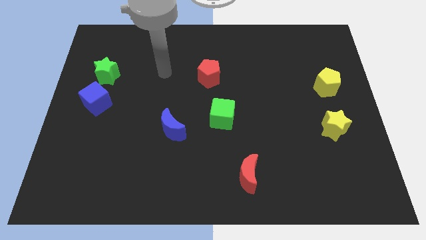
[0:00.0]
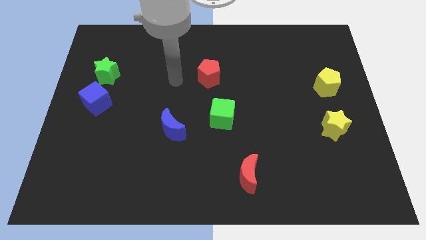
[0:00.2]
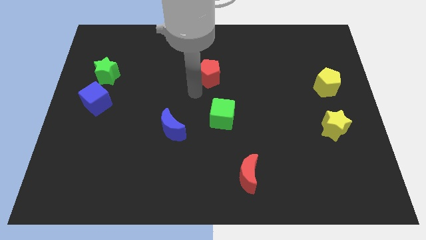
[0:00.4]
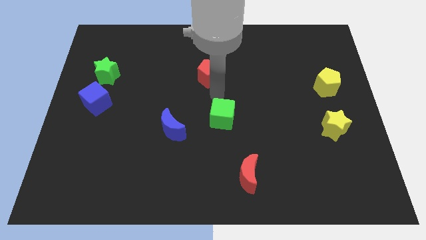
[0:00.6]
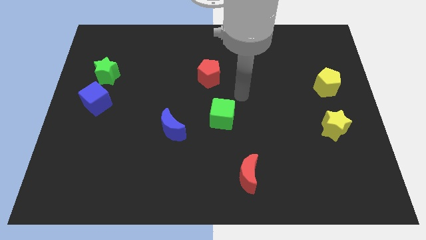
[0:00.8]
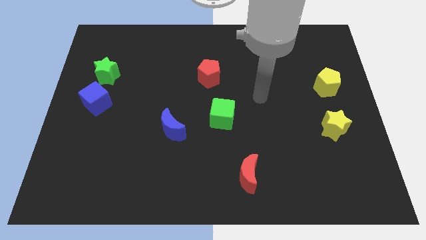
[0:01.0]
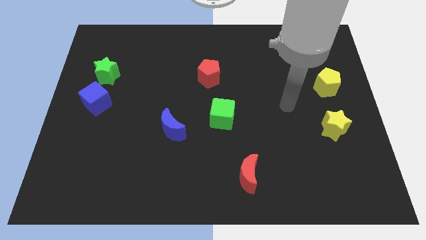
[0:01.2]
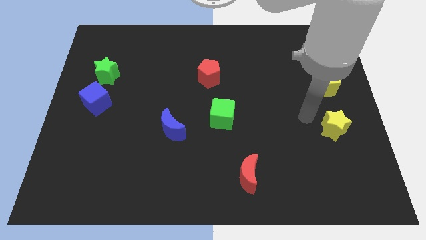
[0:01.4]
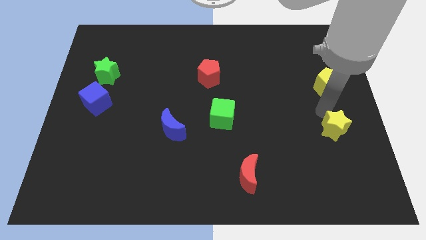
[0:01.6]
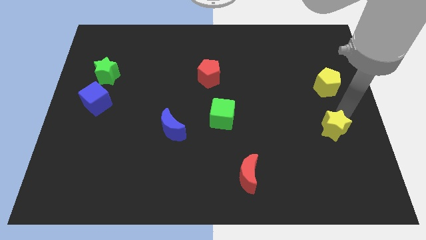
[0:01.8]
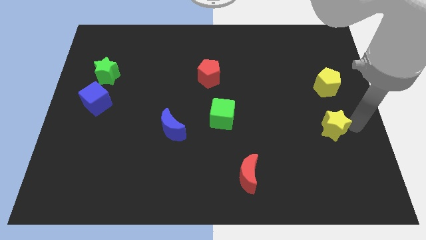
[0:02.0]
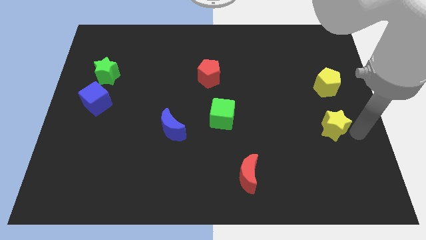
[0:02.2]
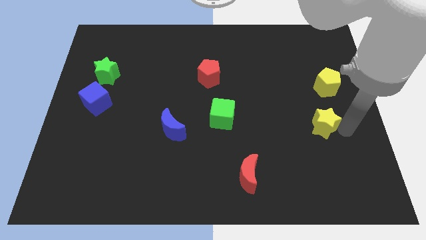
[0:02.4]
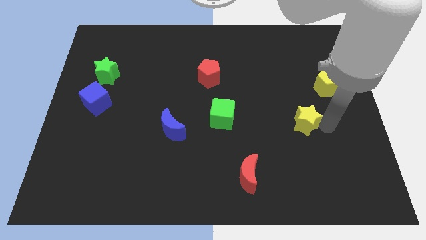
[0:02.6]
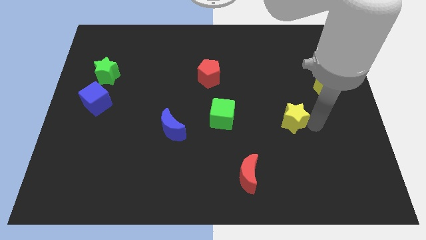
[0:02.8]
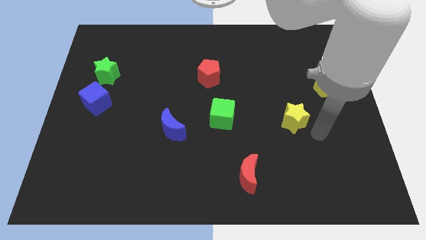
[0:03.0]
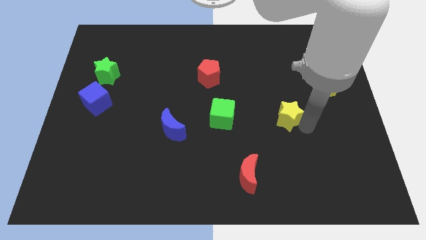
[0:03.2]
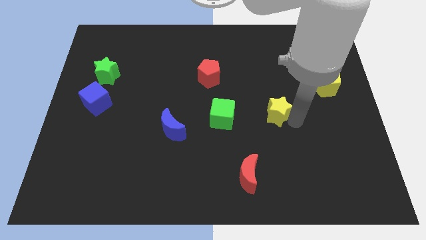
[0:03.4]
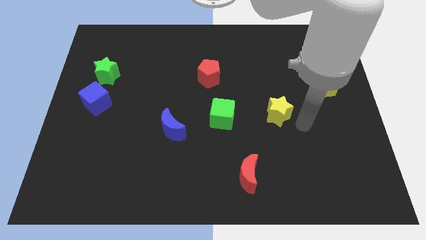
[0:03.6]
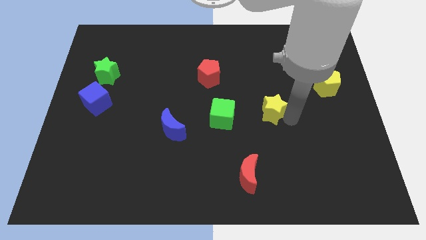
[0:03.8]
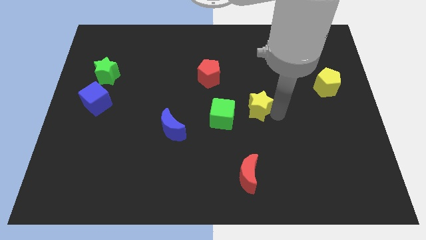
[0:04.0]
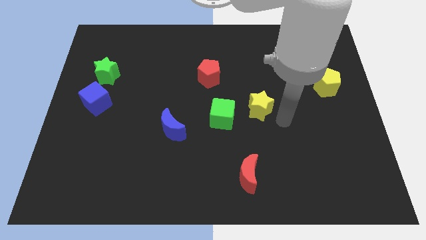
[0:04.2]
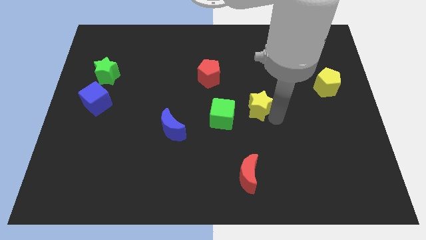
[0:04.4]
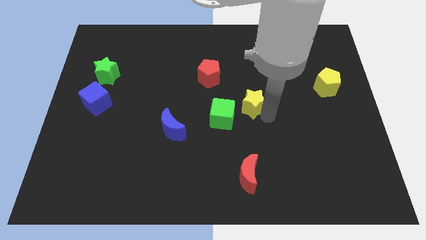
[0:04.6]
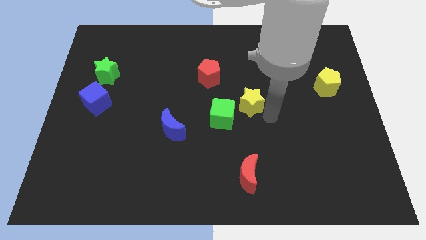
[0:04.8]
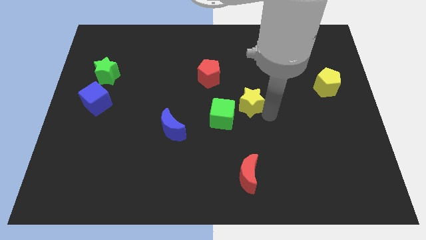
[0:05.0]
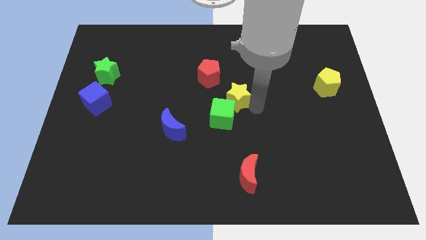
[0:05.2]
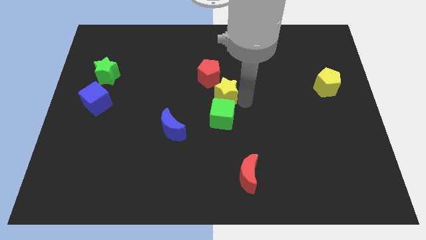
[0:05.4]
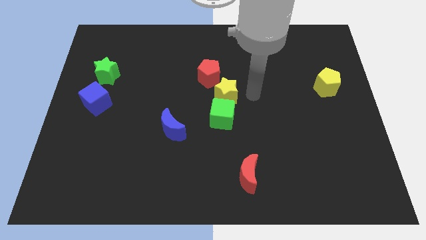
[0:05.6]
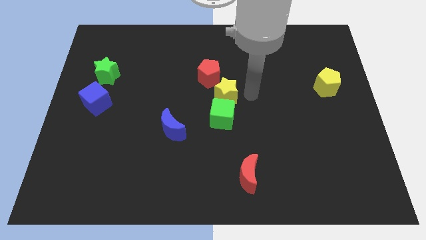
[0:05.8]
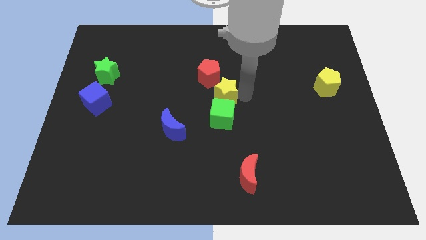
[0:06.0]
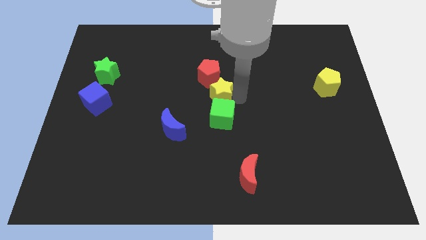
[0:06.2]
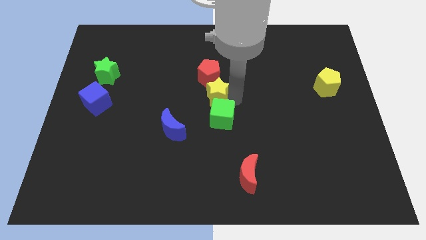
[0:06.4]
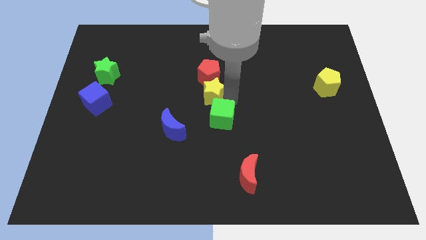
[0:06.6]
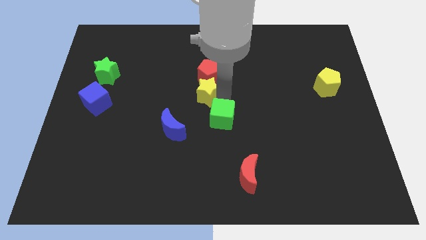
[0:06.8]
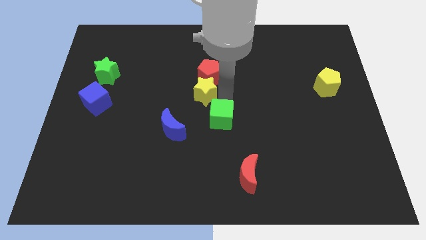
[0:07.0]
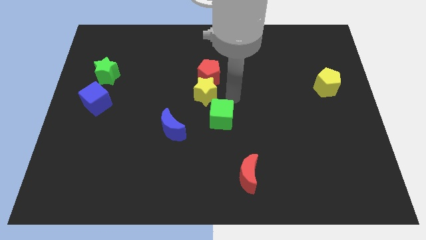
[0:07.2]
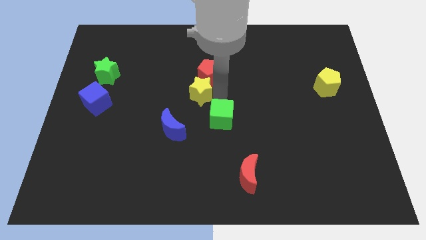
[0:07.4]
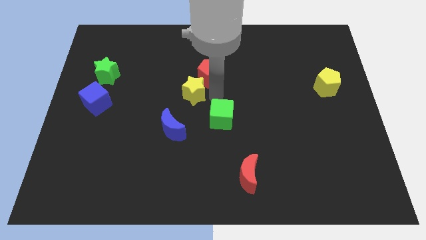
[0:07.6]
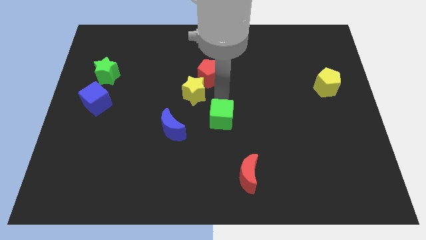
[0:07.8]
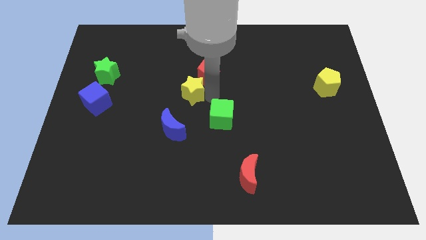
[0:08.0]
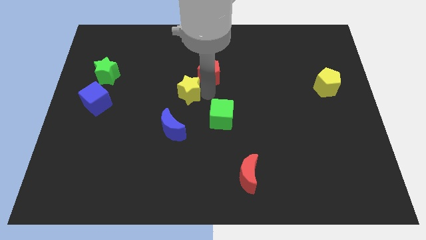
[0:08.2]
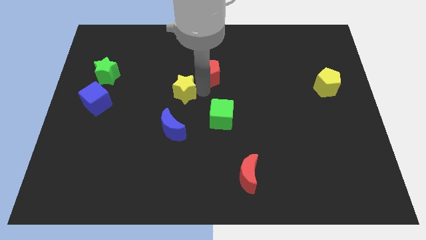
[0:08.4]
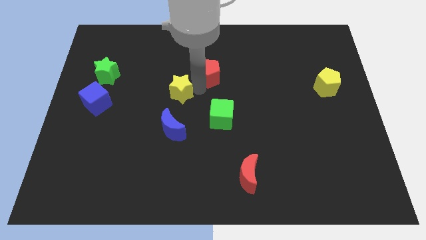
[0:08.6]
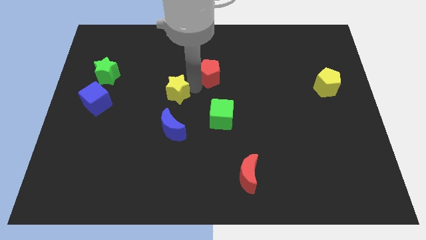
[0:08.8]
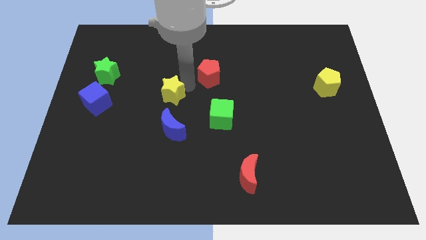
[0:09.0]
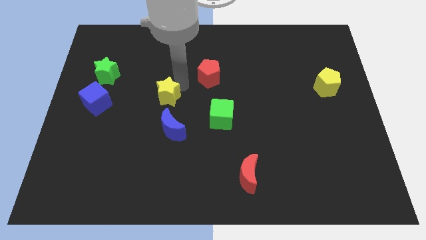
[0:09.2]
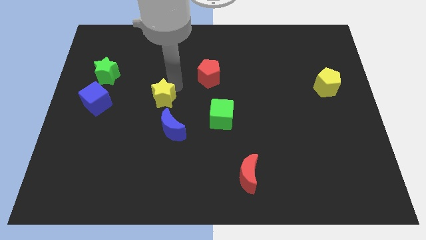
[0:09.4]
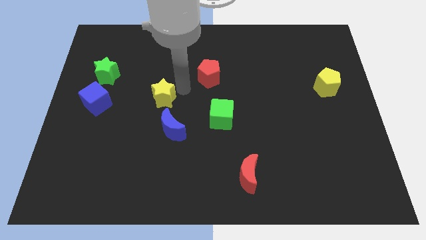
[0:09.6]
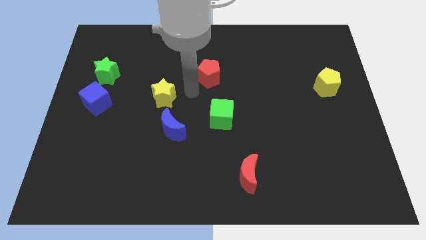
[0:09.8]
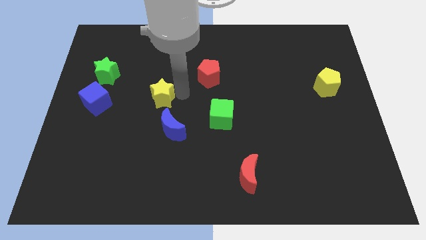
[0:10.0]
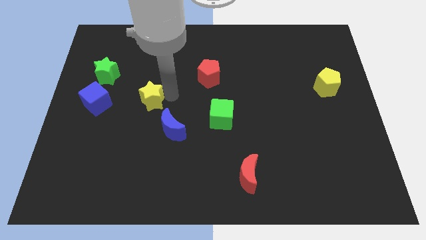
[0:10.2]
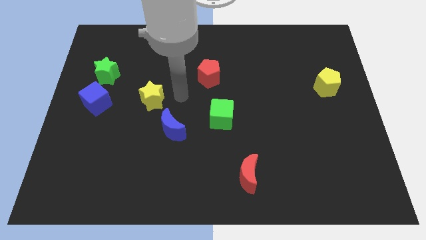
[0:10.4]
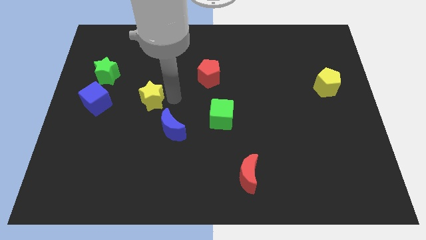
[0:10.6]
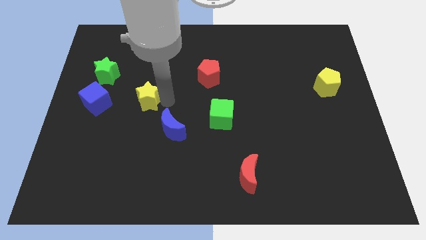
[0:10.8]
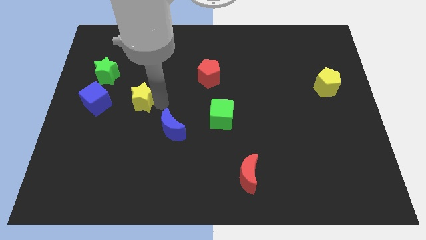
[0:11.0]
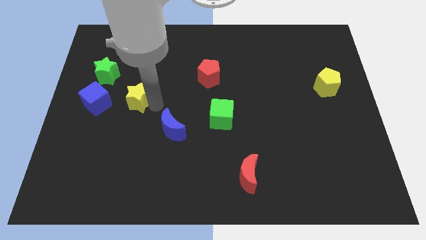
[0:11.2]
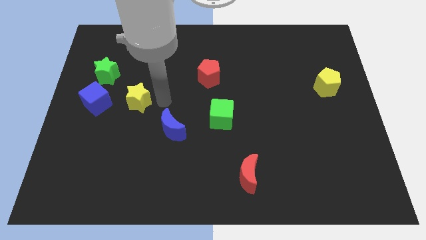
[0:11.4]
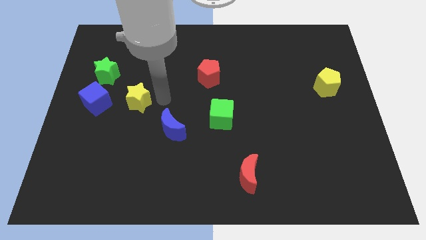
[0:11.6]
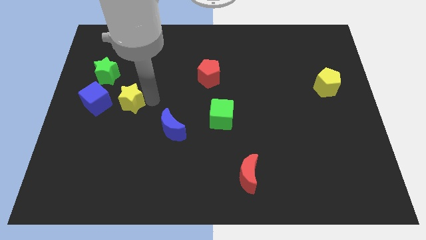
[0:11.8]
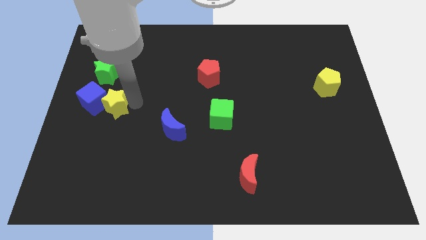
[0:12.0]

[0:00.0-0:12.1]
put the yellow star to the blue cube

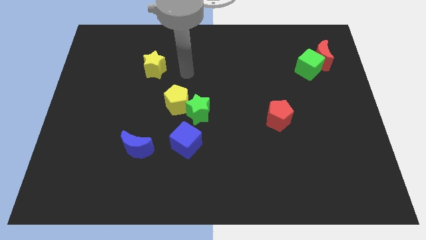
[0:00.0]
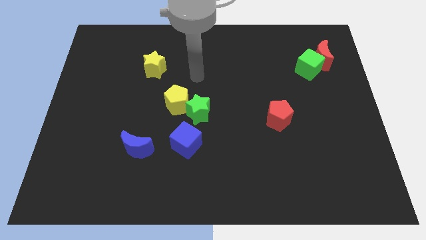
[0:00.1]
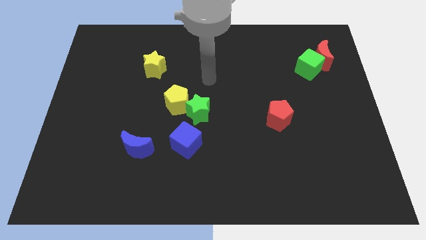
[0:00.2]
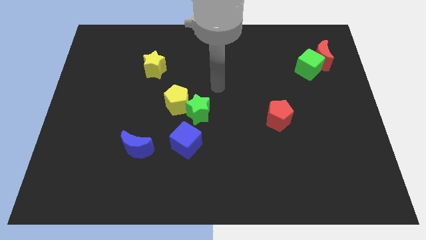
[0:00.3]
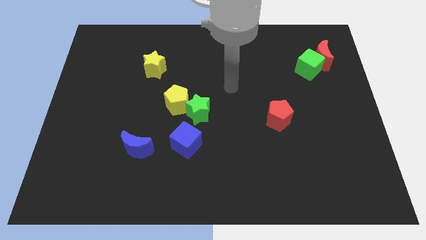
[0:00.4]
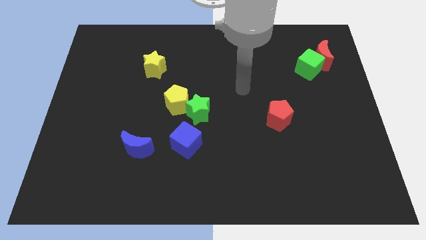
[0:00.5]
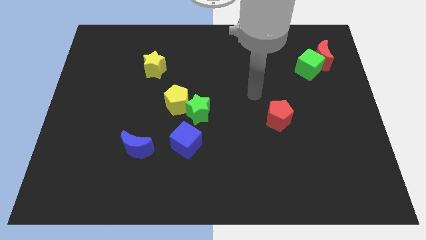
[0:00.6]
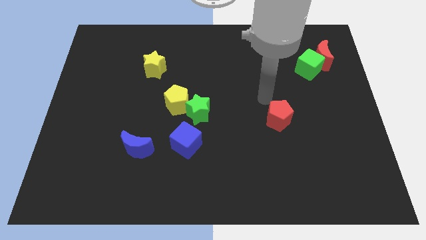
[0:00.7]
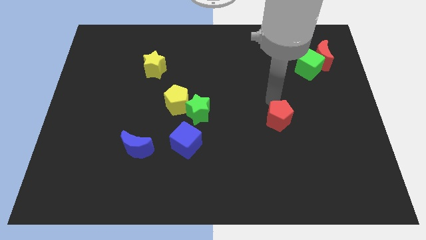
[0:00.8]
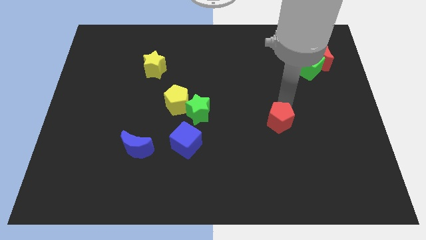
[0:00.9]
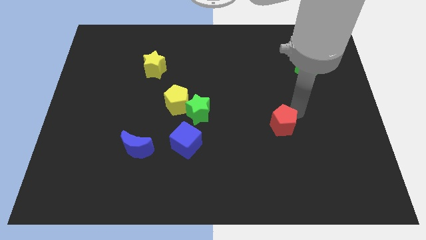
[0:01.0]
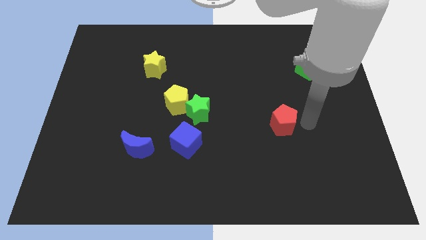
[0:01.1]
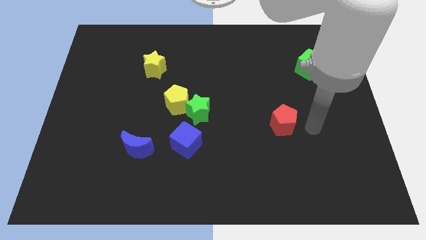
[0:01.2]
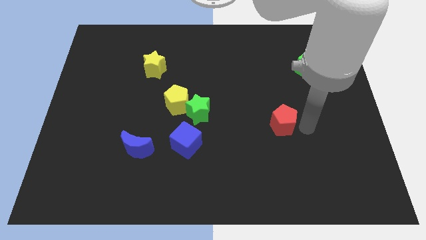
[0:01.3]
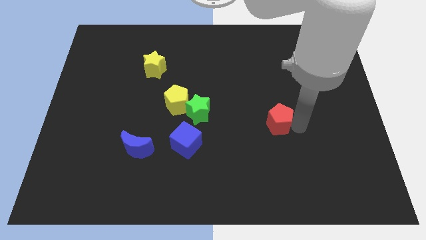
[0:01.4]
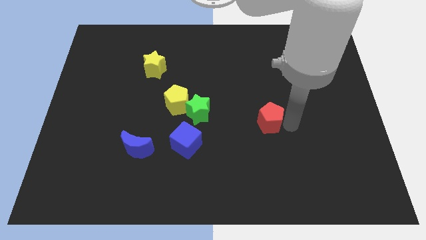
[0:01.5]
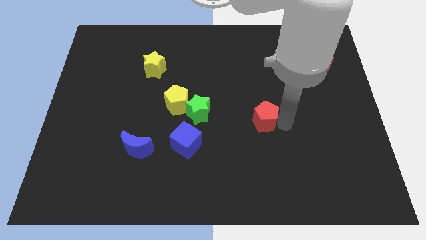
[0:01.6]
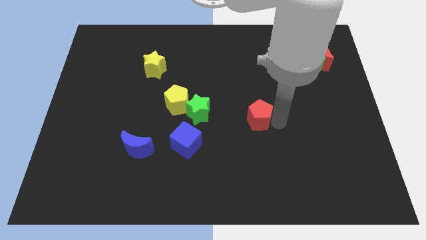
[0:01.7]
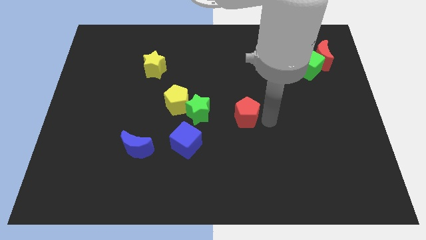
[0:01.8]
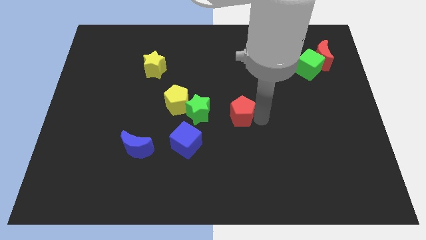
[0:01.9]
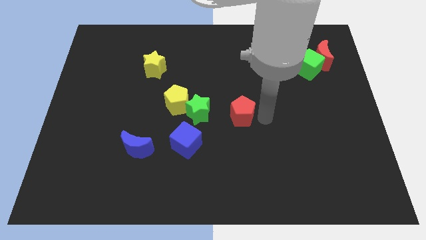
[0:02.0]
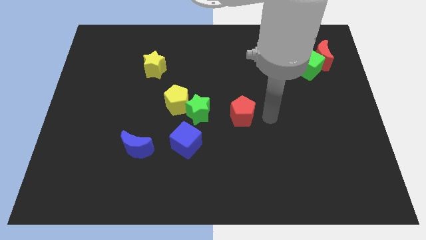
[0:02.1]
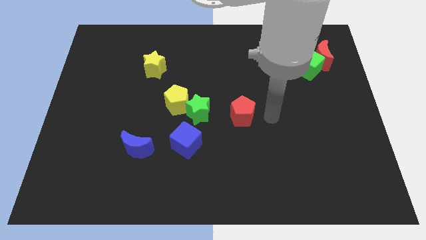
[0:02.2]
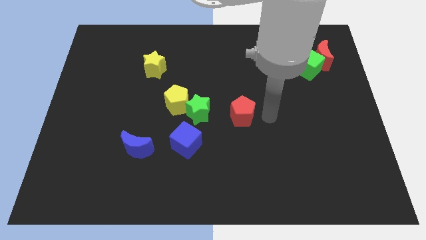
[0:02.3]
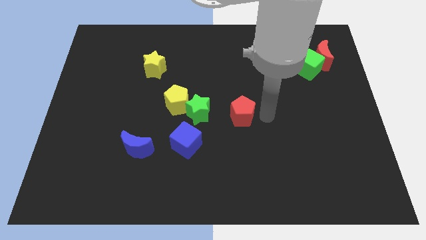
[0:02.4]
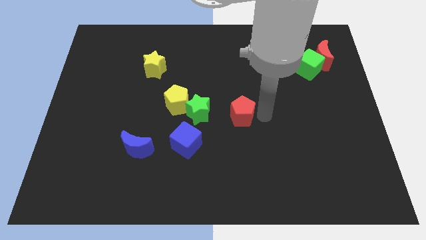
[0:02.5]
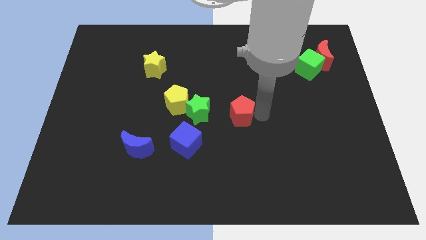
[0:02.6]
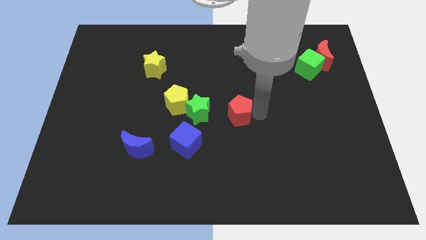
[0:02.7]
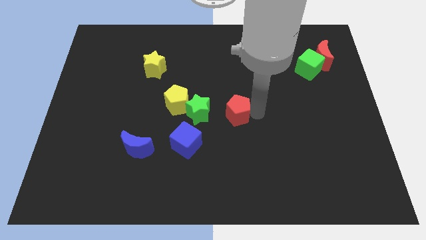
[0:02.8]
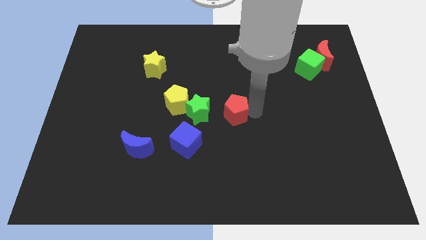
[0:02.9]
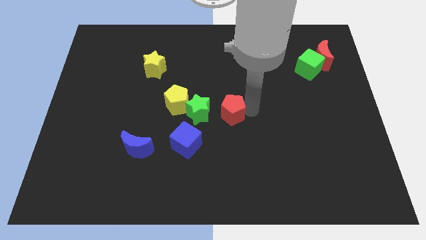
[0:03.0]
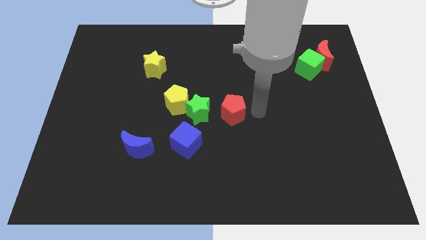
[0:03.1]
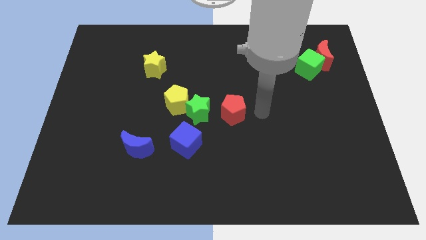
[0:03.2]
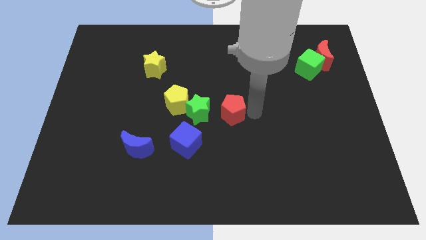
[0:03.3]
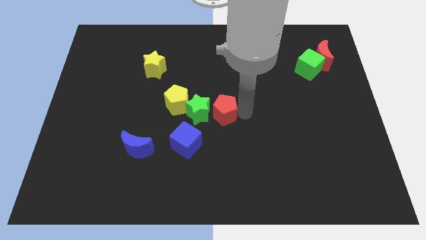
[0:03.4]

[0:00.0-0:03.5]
push the red pentagon to the green star
